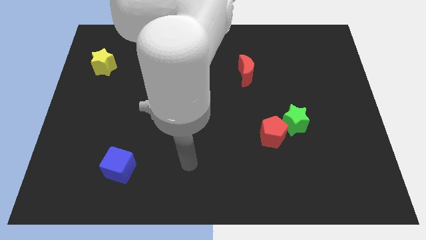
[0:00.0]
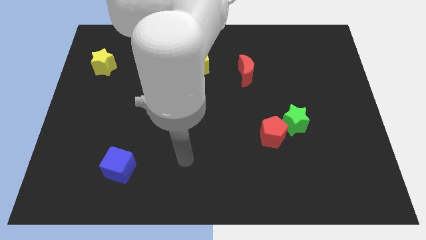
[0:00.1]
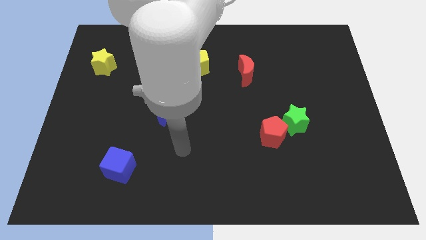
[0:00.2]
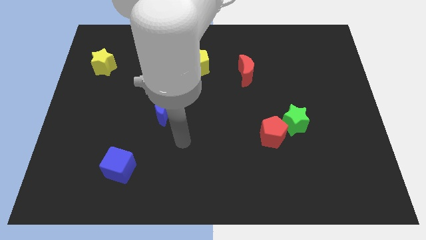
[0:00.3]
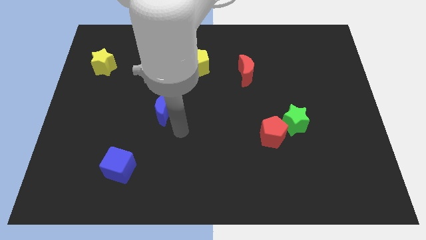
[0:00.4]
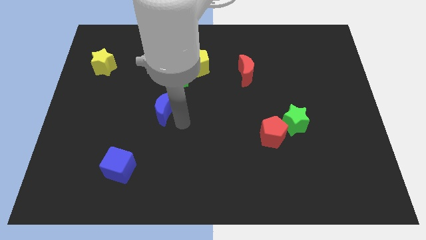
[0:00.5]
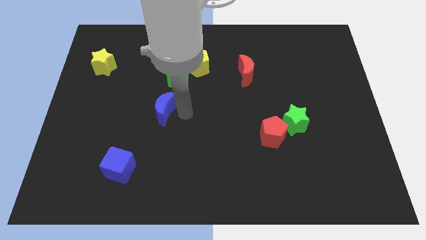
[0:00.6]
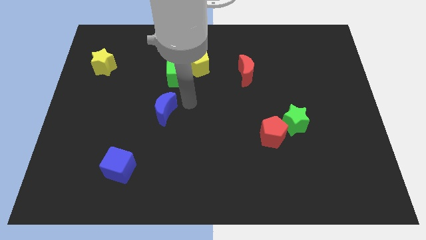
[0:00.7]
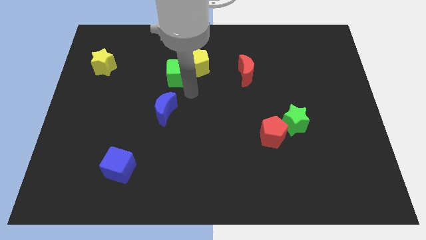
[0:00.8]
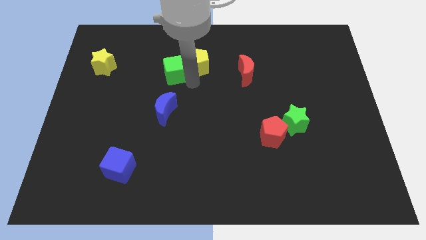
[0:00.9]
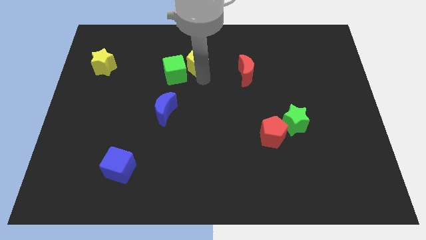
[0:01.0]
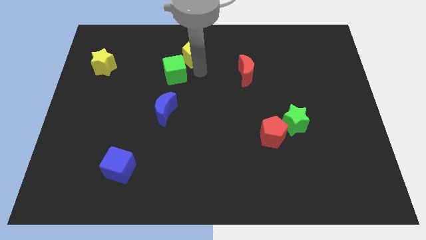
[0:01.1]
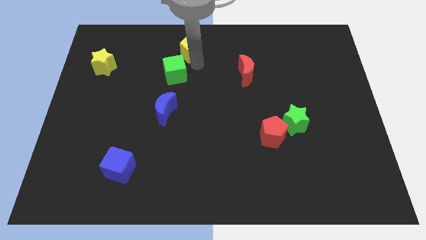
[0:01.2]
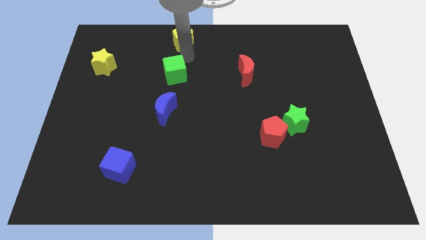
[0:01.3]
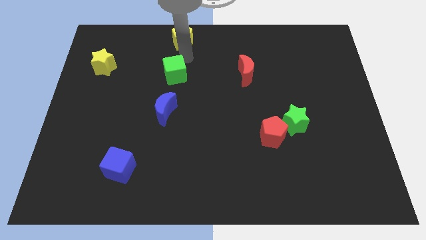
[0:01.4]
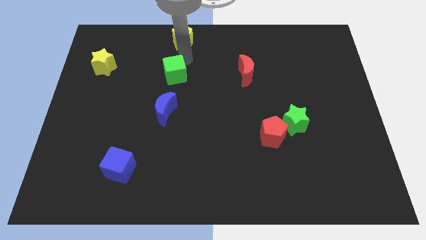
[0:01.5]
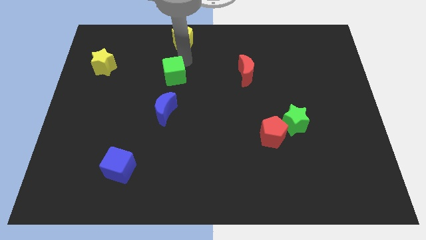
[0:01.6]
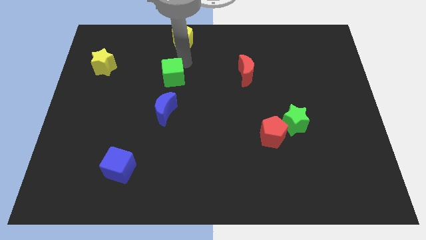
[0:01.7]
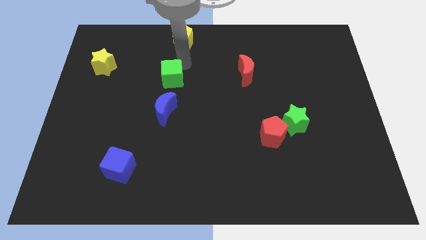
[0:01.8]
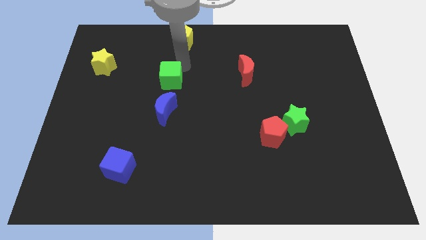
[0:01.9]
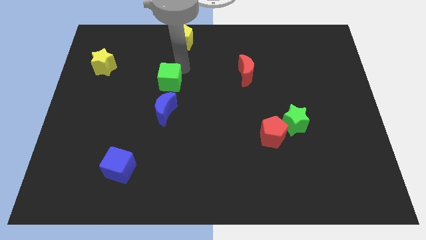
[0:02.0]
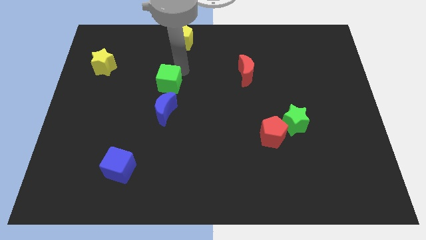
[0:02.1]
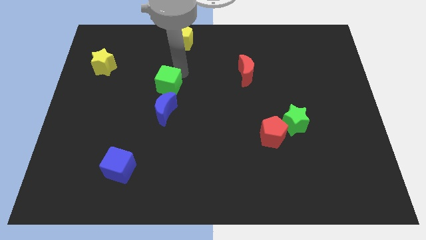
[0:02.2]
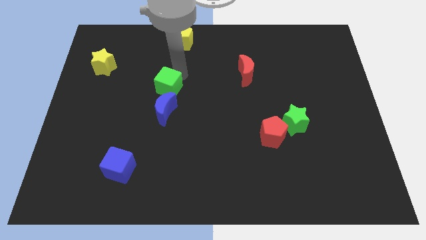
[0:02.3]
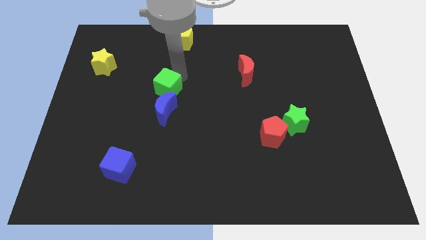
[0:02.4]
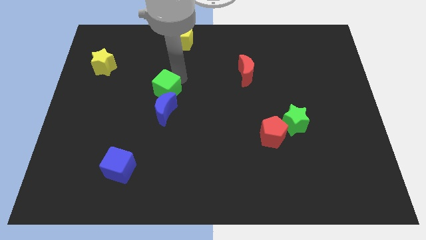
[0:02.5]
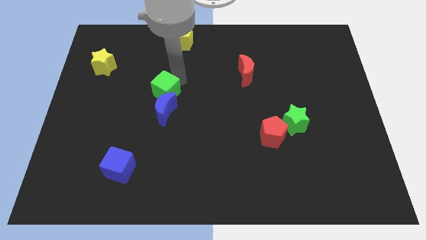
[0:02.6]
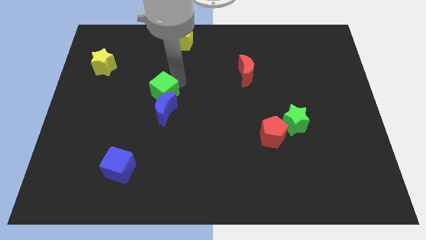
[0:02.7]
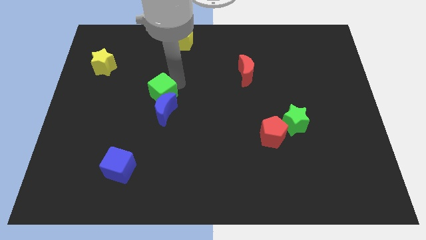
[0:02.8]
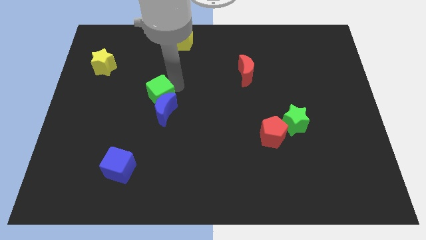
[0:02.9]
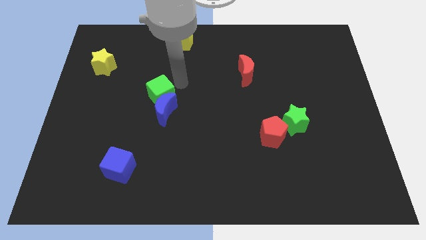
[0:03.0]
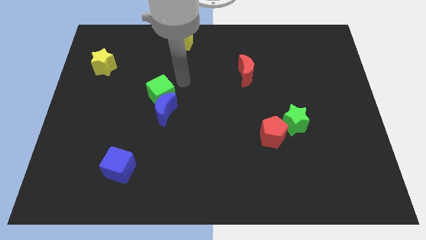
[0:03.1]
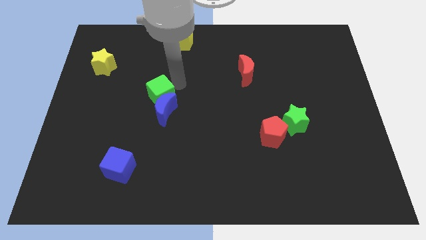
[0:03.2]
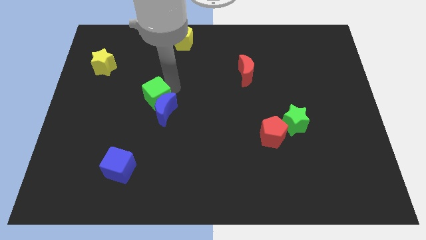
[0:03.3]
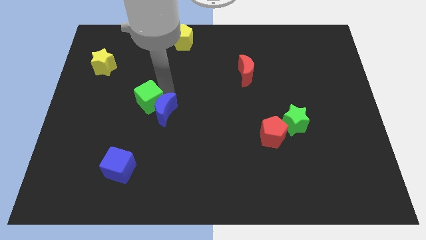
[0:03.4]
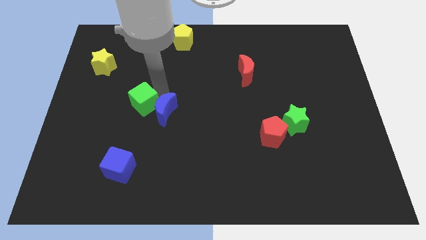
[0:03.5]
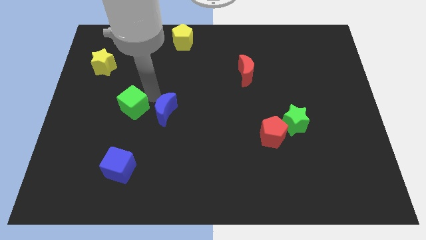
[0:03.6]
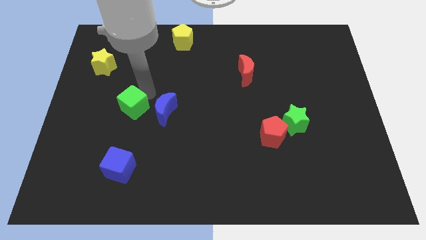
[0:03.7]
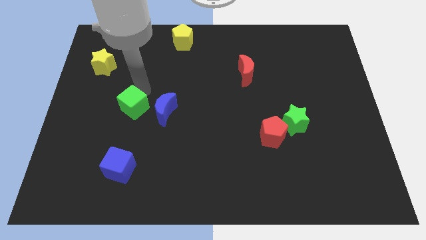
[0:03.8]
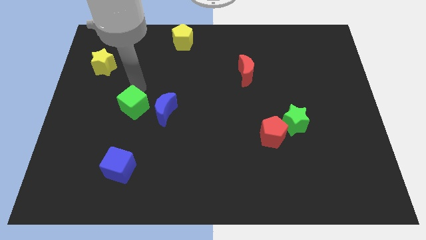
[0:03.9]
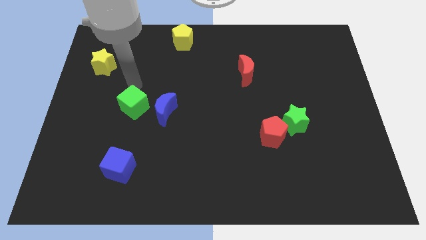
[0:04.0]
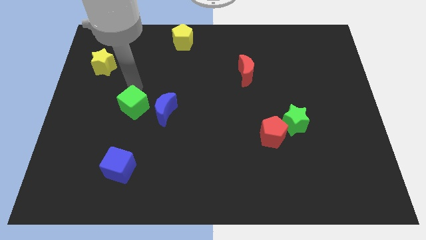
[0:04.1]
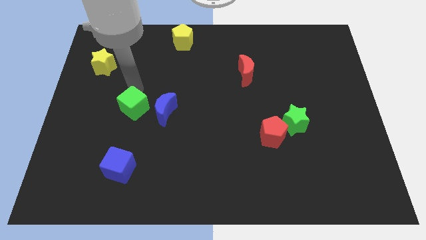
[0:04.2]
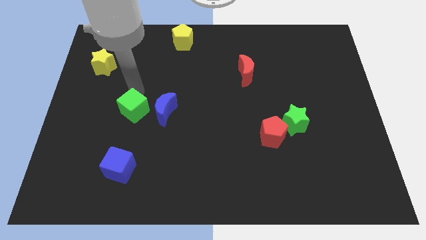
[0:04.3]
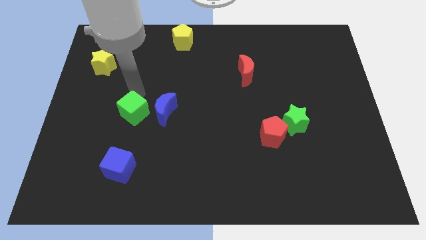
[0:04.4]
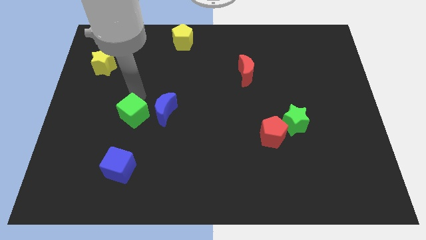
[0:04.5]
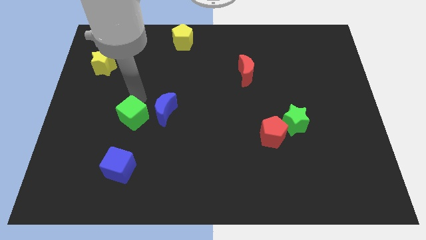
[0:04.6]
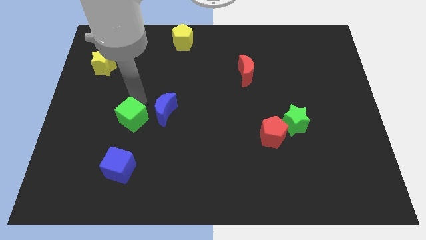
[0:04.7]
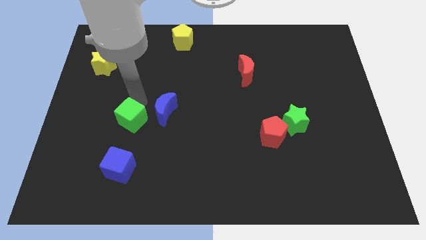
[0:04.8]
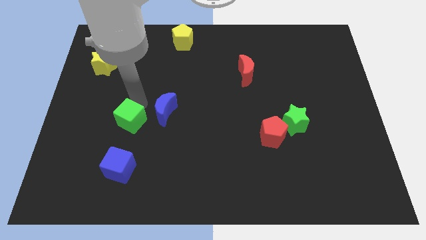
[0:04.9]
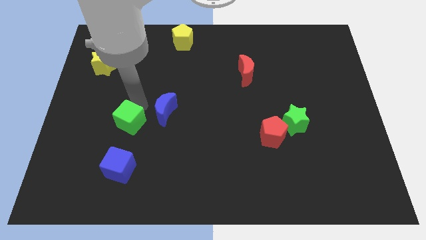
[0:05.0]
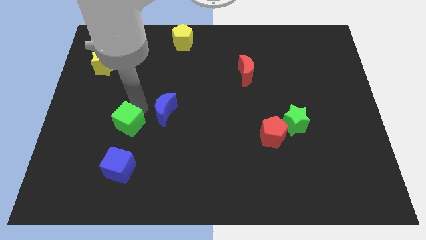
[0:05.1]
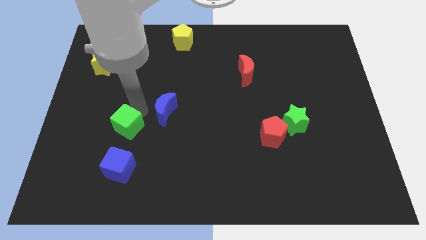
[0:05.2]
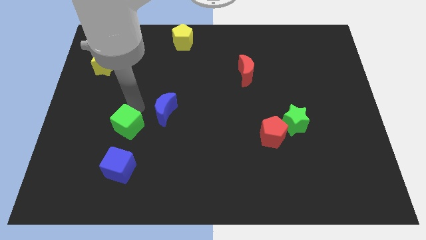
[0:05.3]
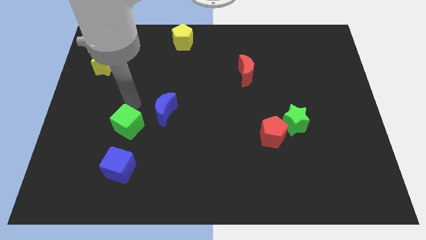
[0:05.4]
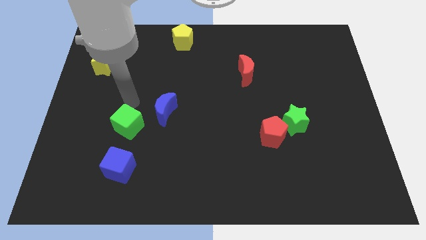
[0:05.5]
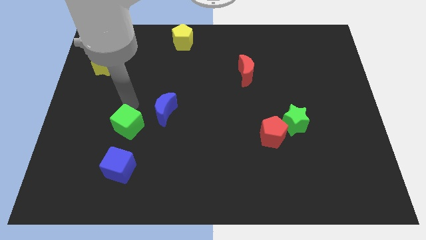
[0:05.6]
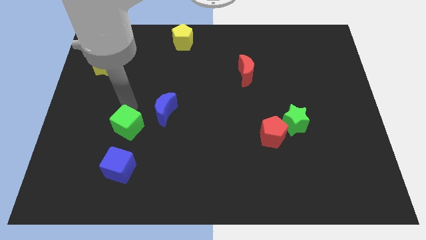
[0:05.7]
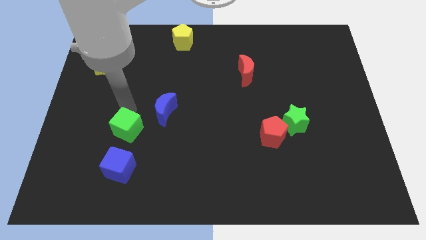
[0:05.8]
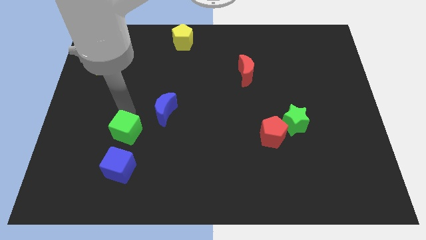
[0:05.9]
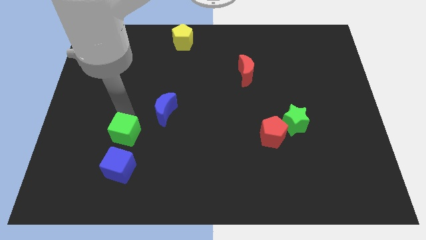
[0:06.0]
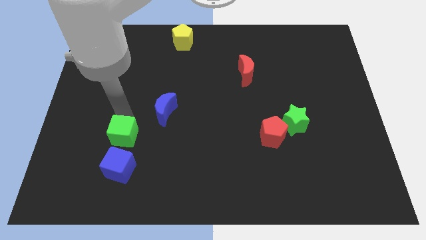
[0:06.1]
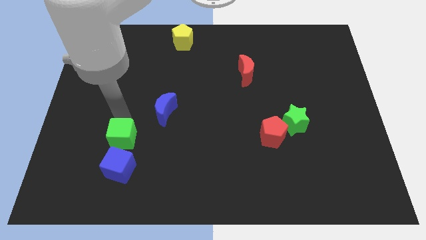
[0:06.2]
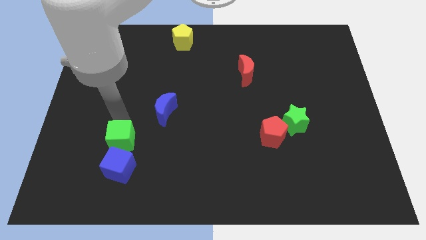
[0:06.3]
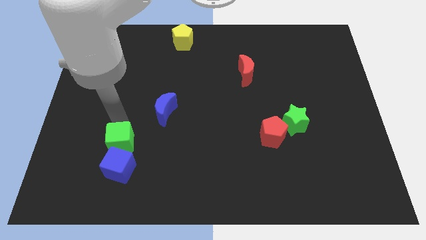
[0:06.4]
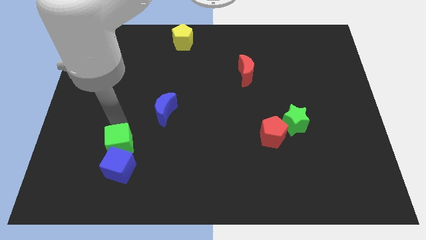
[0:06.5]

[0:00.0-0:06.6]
move the green cube to the blue cube

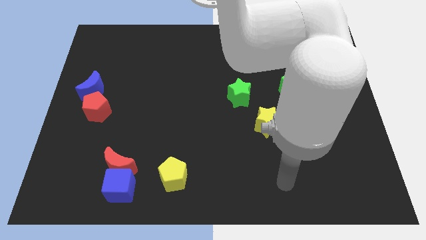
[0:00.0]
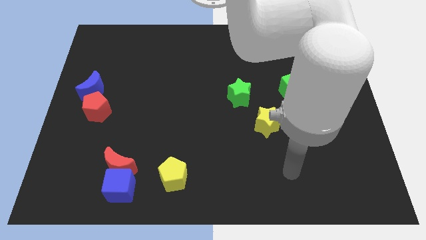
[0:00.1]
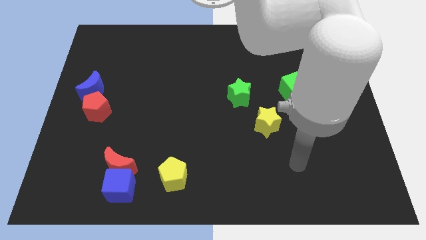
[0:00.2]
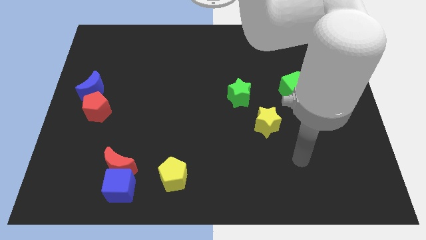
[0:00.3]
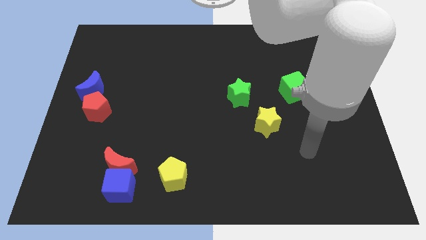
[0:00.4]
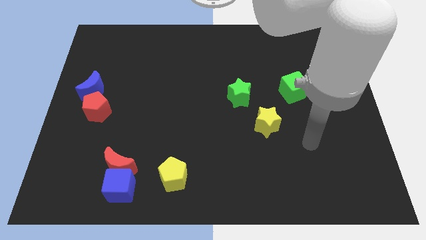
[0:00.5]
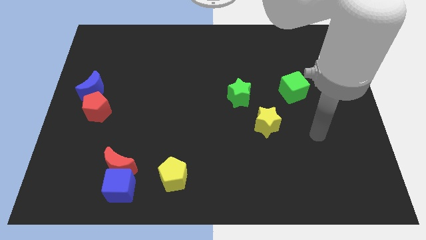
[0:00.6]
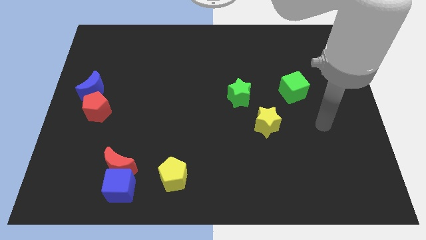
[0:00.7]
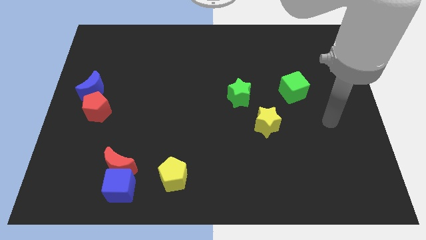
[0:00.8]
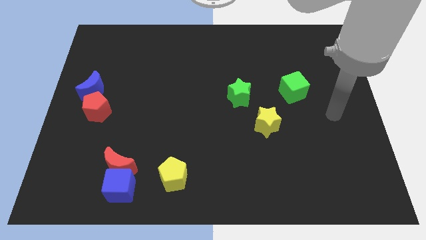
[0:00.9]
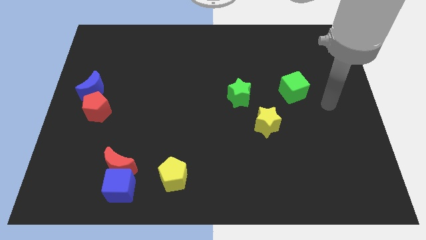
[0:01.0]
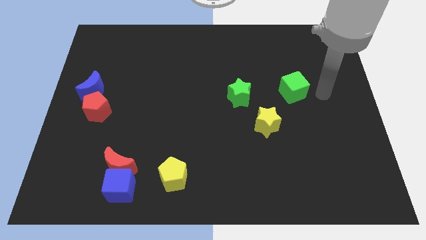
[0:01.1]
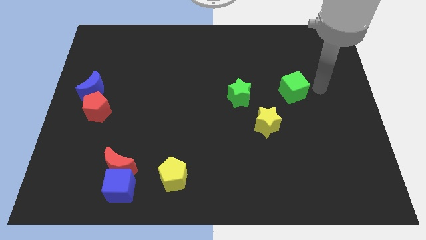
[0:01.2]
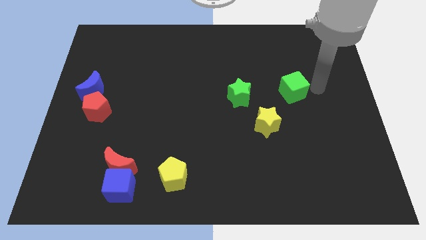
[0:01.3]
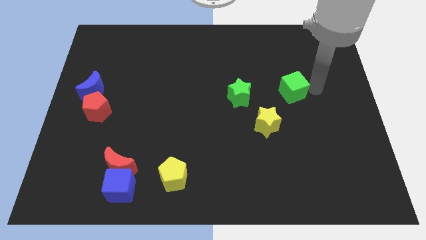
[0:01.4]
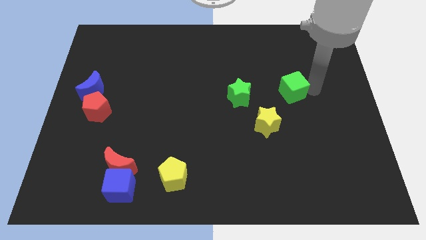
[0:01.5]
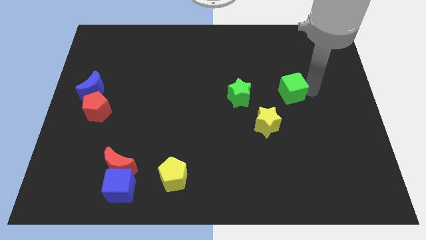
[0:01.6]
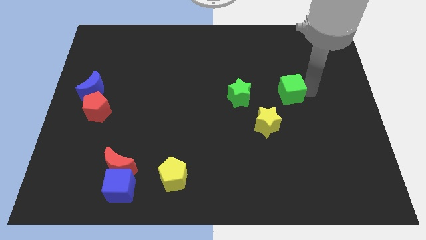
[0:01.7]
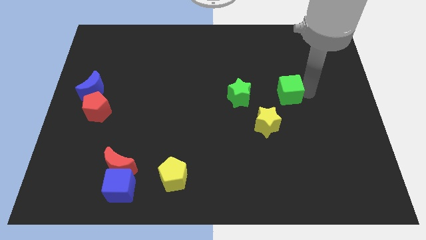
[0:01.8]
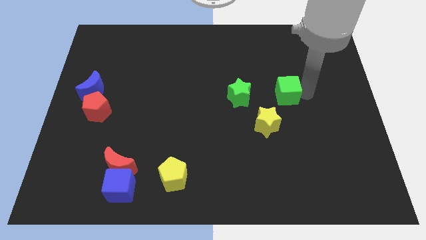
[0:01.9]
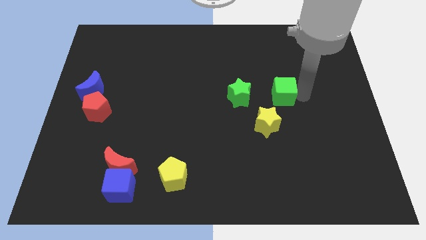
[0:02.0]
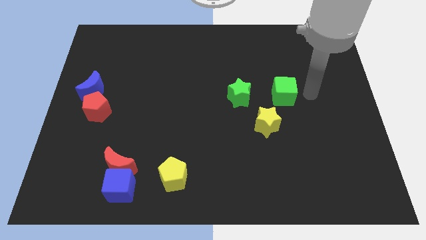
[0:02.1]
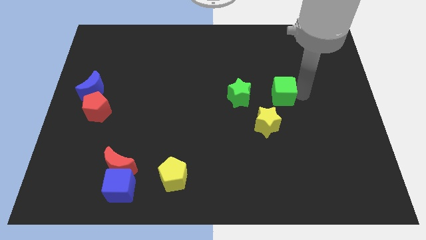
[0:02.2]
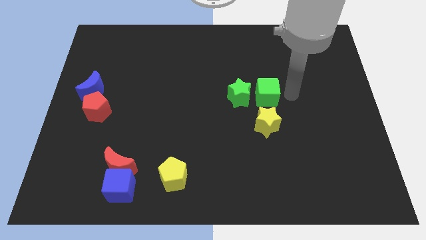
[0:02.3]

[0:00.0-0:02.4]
slide the green cube towards the green star
